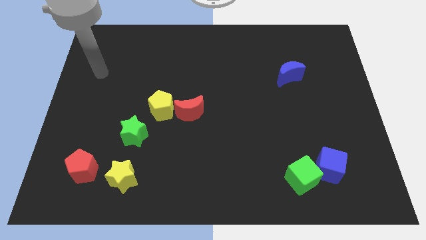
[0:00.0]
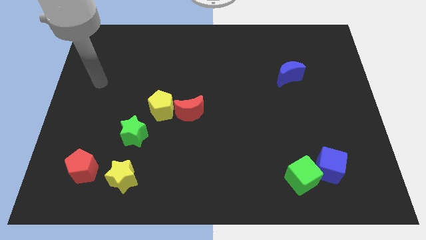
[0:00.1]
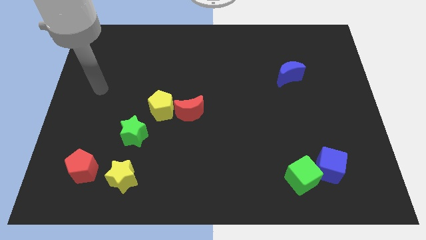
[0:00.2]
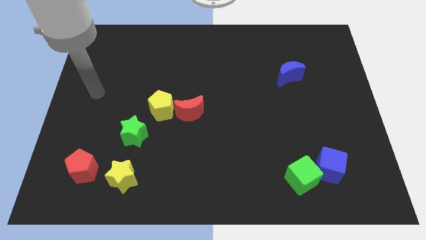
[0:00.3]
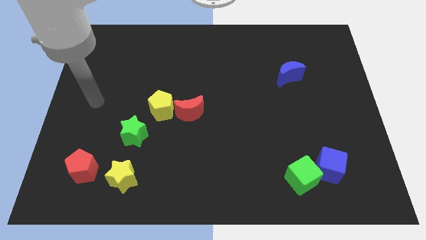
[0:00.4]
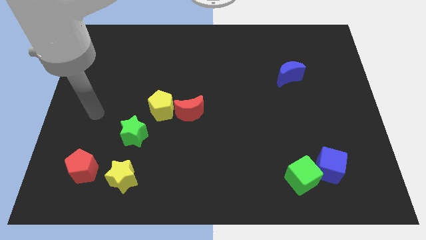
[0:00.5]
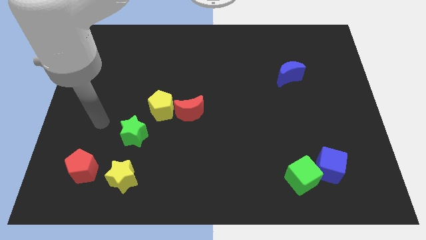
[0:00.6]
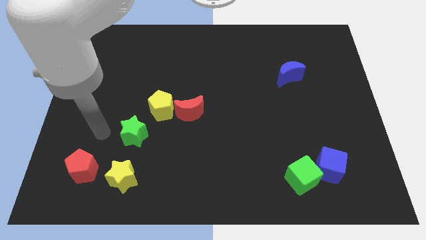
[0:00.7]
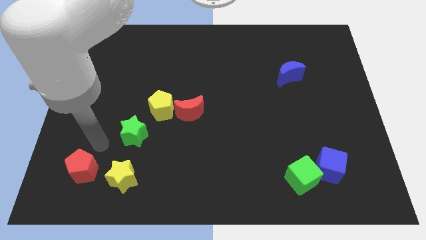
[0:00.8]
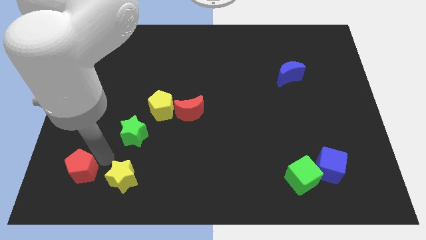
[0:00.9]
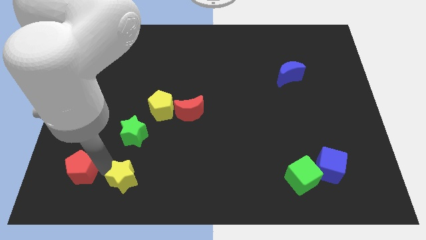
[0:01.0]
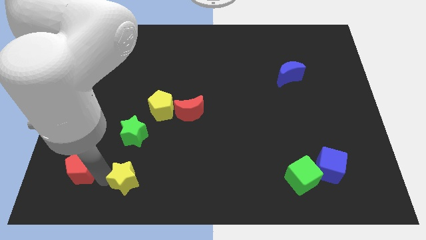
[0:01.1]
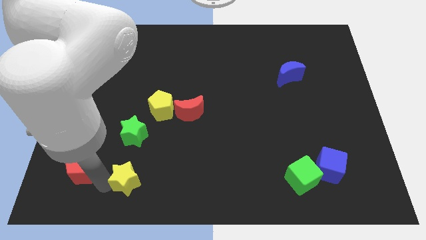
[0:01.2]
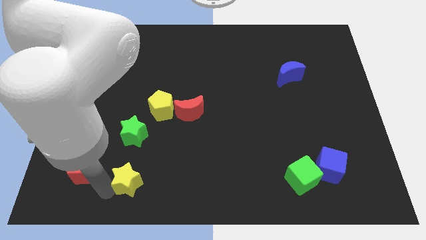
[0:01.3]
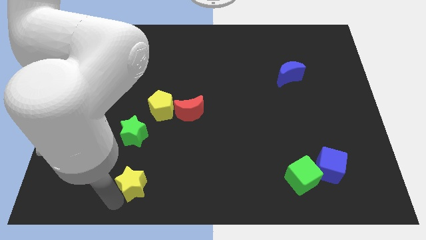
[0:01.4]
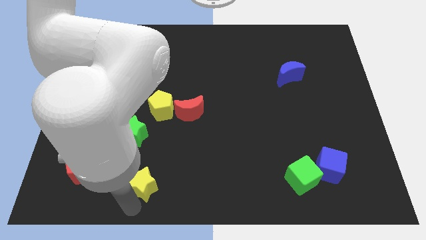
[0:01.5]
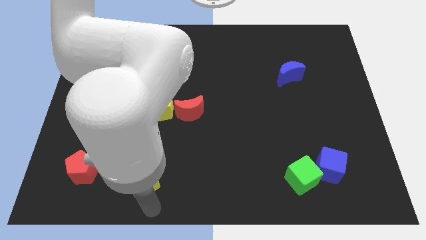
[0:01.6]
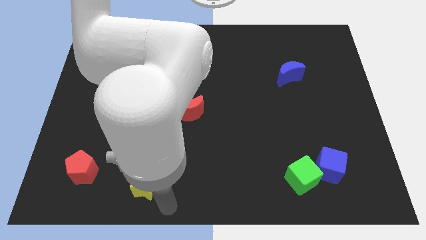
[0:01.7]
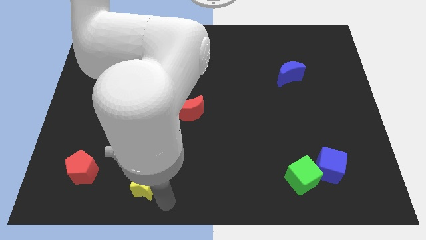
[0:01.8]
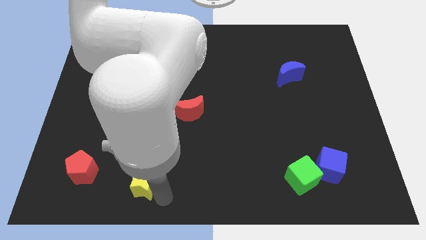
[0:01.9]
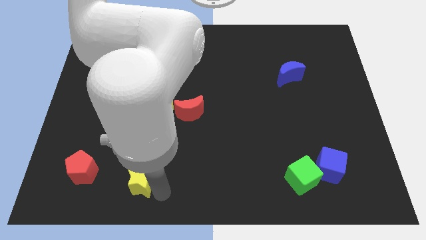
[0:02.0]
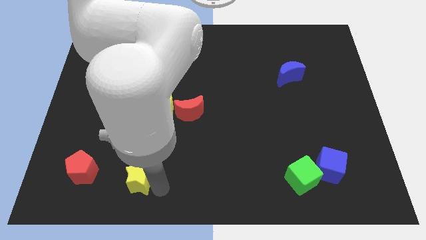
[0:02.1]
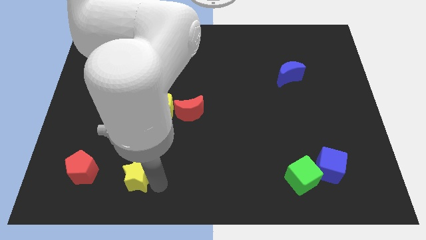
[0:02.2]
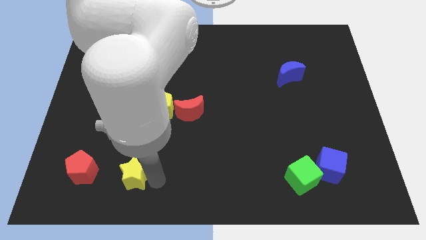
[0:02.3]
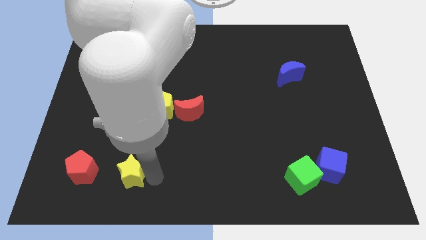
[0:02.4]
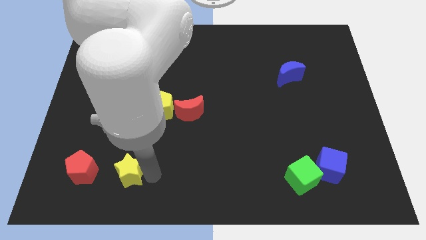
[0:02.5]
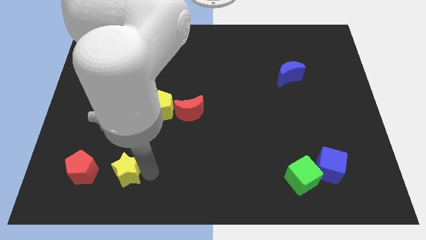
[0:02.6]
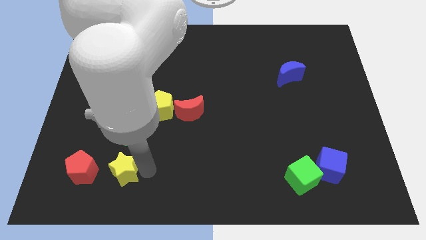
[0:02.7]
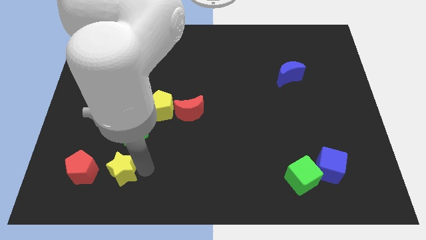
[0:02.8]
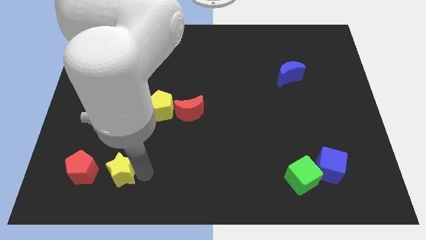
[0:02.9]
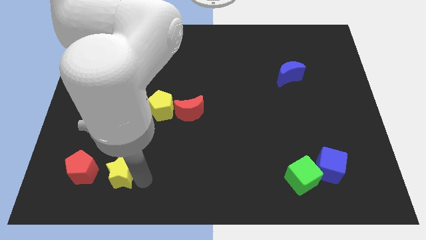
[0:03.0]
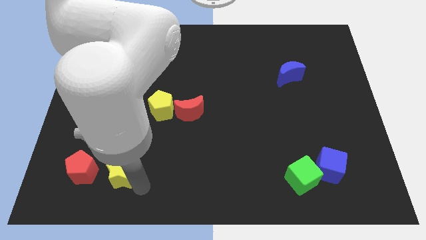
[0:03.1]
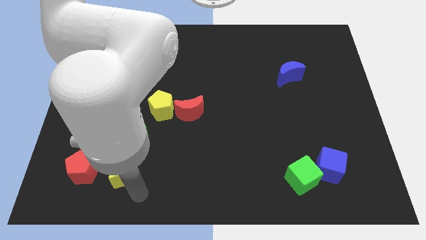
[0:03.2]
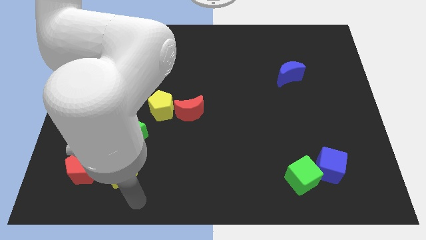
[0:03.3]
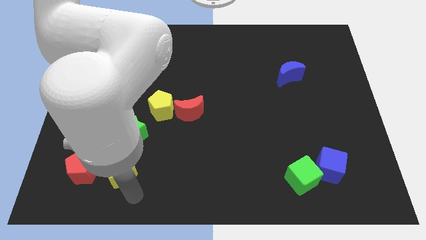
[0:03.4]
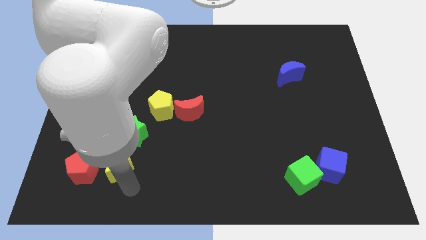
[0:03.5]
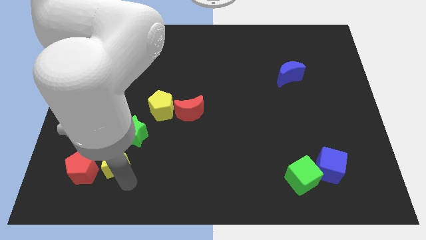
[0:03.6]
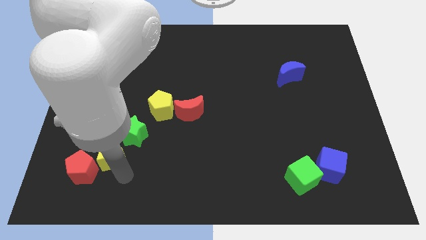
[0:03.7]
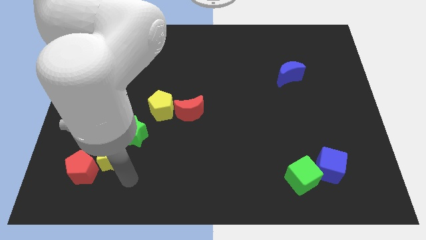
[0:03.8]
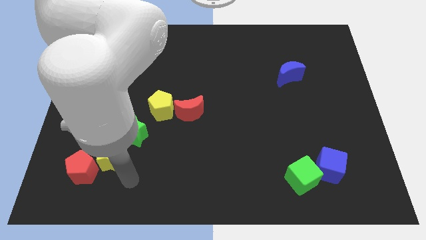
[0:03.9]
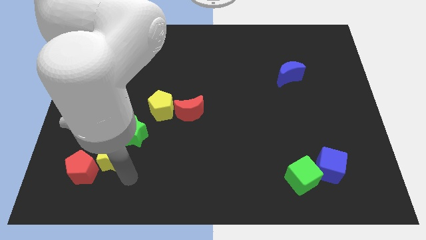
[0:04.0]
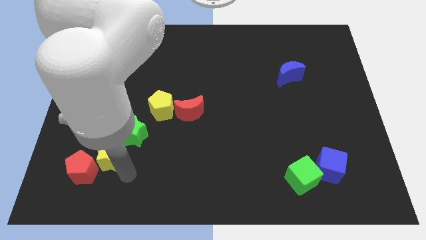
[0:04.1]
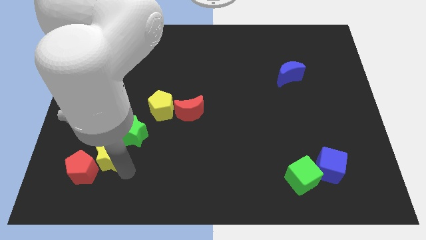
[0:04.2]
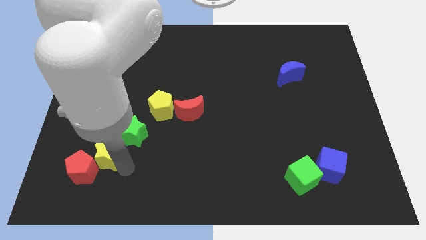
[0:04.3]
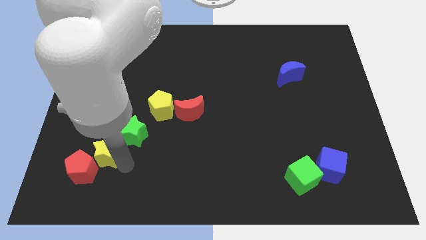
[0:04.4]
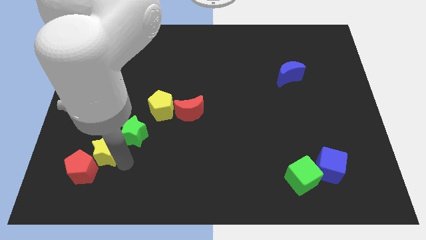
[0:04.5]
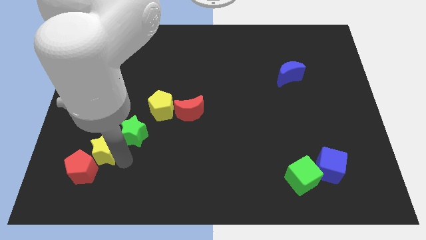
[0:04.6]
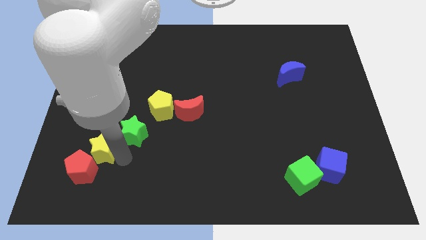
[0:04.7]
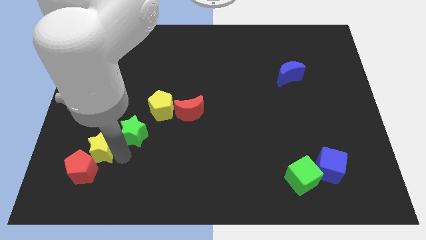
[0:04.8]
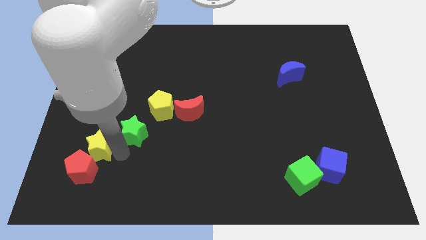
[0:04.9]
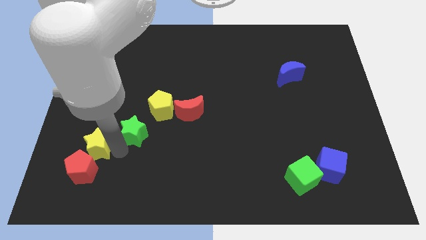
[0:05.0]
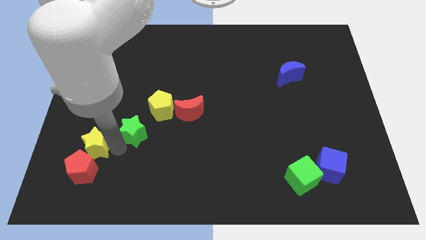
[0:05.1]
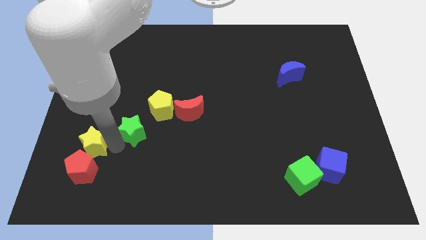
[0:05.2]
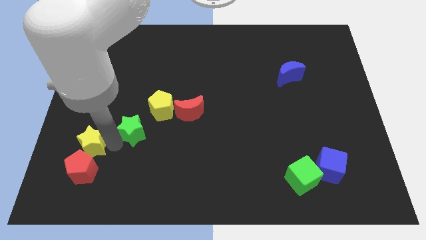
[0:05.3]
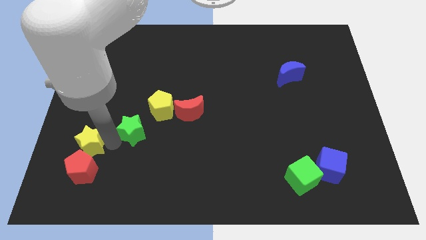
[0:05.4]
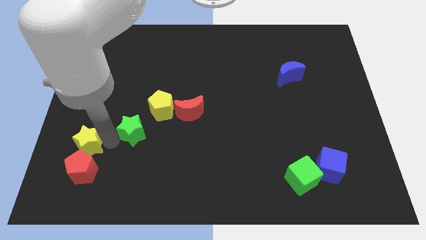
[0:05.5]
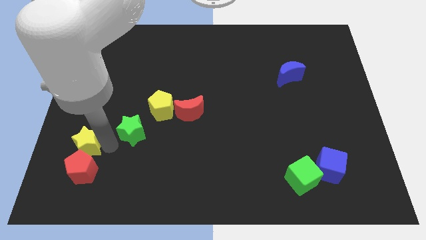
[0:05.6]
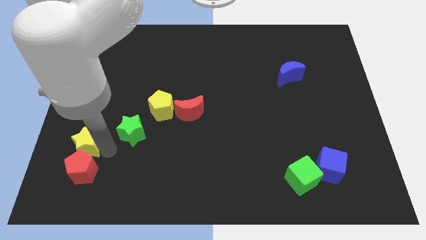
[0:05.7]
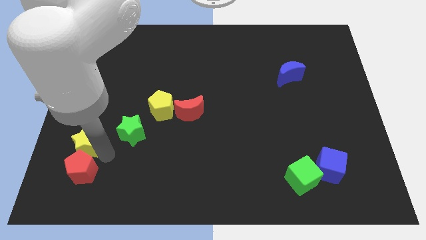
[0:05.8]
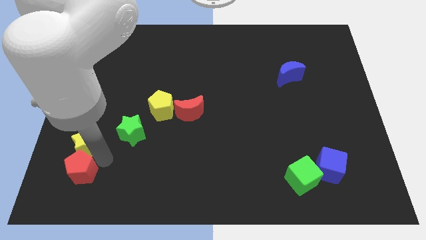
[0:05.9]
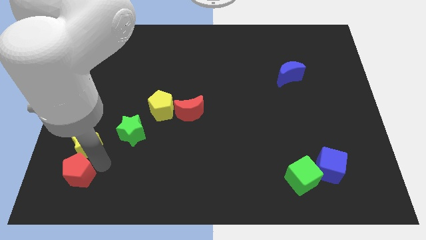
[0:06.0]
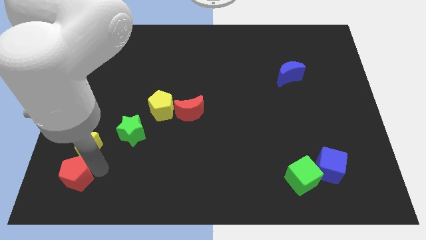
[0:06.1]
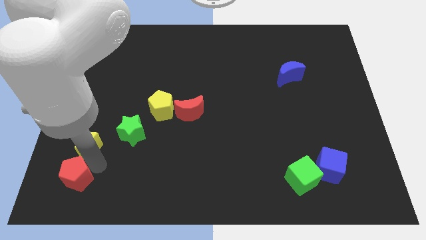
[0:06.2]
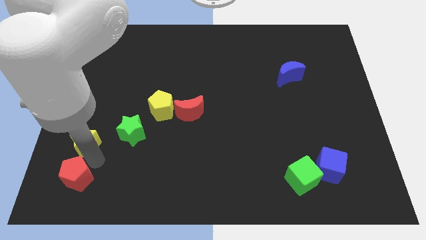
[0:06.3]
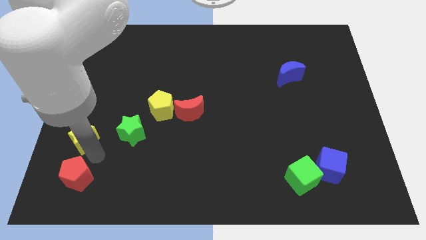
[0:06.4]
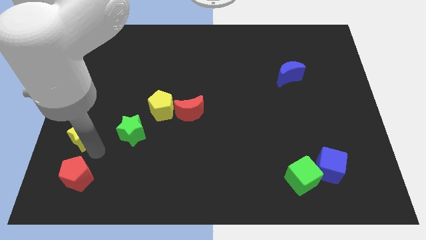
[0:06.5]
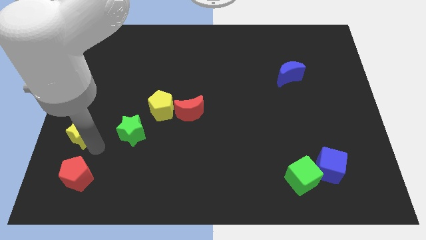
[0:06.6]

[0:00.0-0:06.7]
move the yellow star to the left side of the board

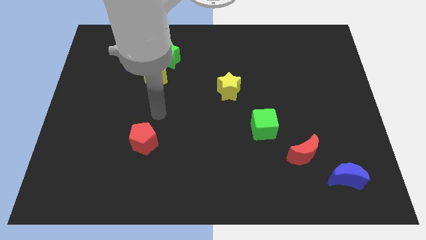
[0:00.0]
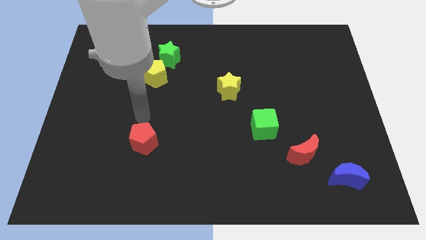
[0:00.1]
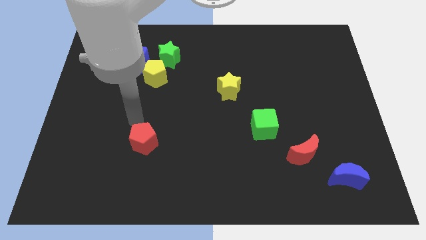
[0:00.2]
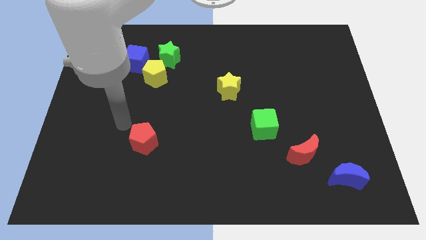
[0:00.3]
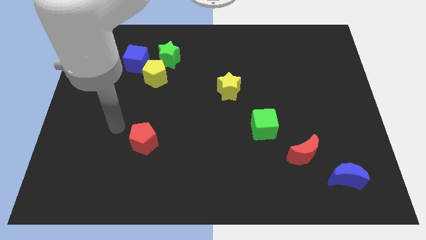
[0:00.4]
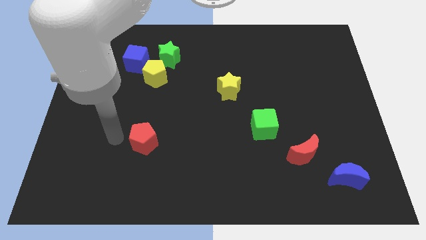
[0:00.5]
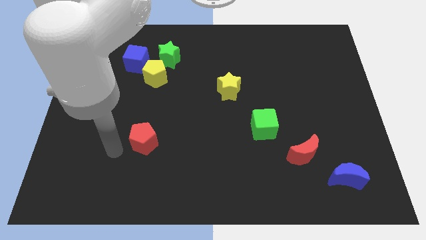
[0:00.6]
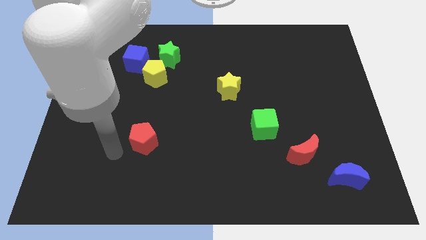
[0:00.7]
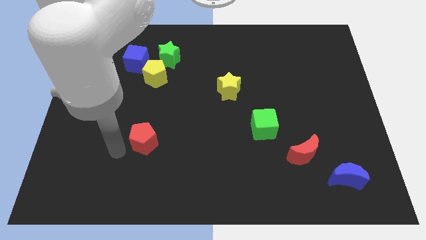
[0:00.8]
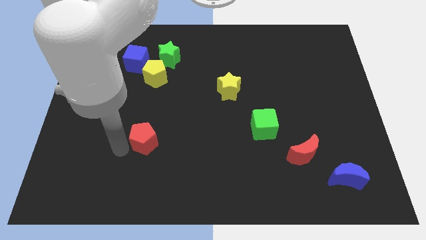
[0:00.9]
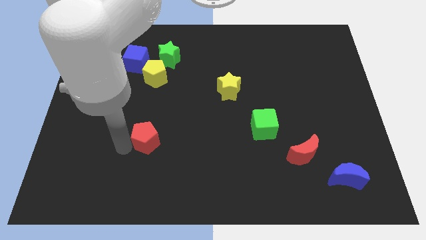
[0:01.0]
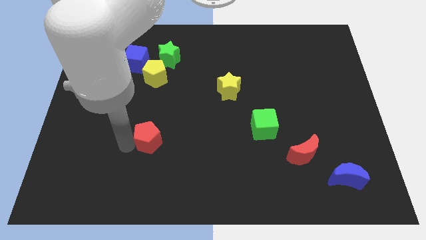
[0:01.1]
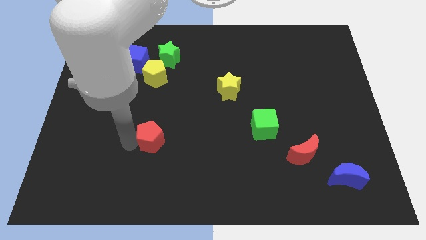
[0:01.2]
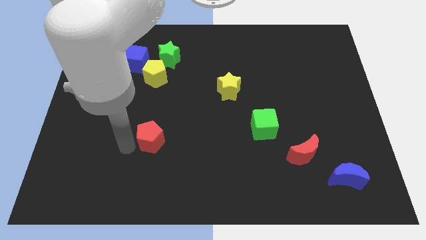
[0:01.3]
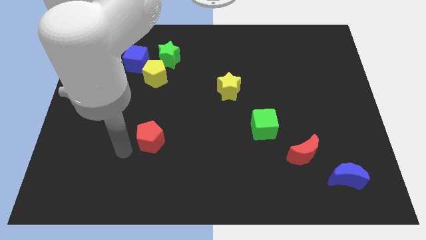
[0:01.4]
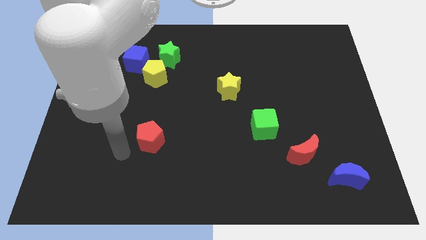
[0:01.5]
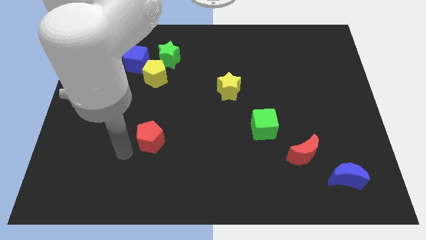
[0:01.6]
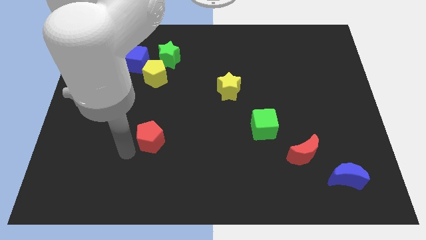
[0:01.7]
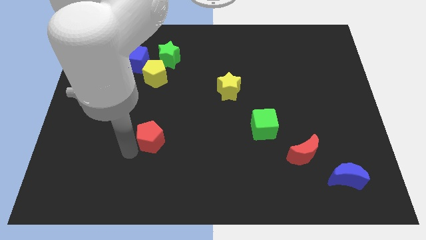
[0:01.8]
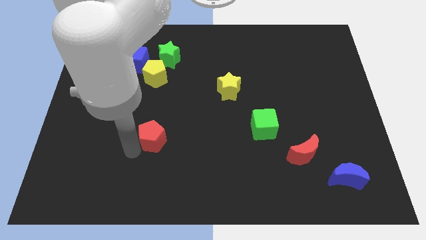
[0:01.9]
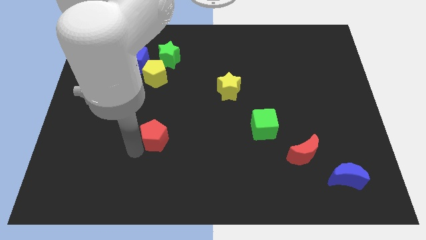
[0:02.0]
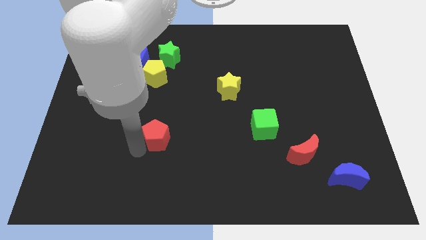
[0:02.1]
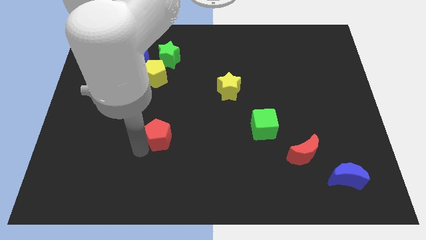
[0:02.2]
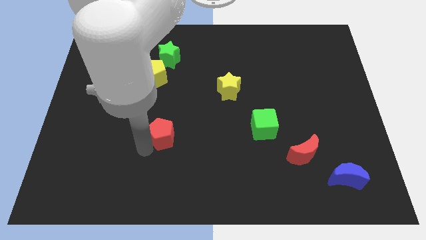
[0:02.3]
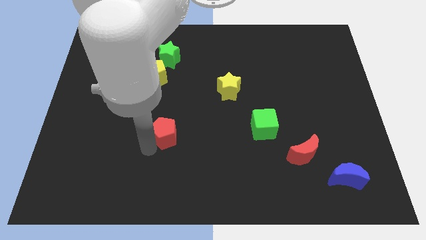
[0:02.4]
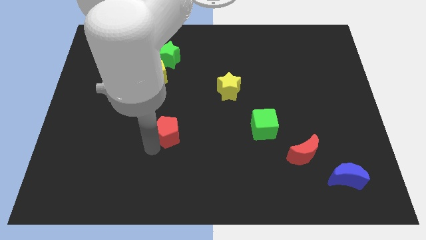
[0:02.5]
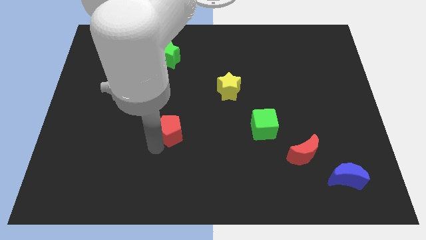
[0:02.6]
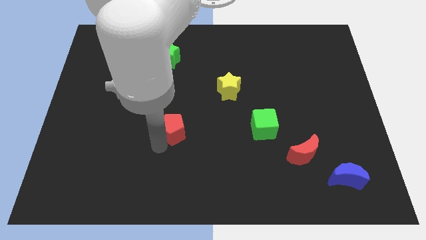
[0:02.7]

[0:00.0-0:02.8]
push the red pentagon to the center
